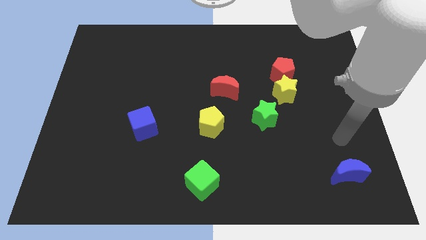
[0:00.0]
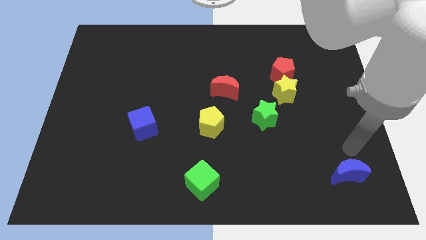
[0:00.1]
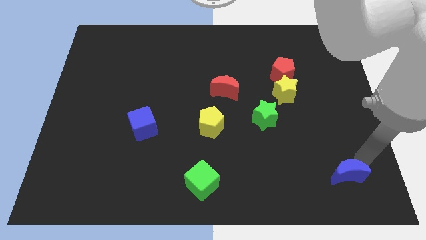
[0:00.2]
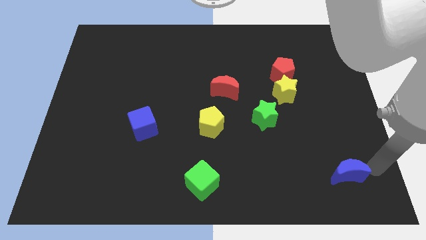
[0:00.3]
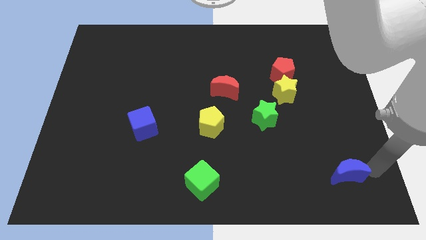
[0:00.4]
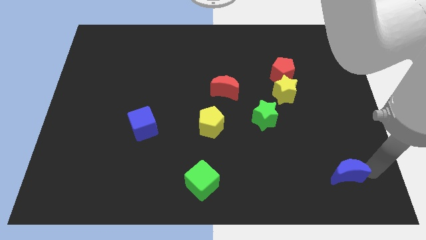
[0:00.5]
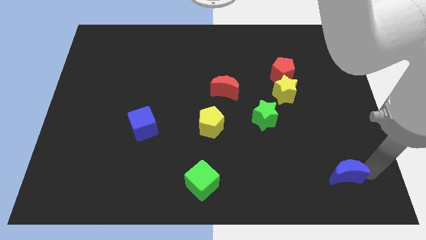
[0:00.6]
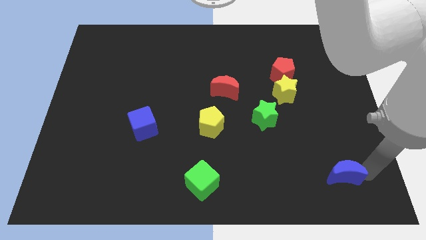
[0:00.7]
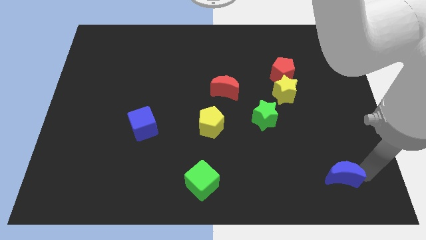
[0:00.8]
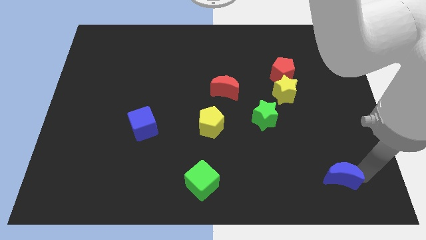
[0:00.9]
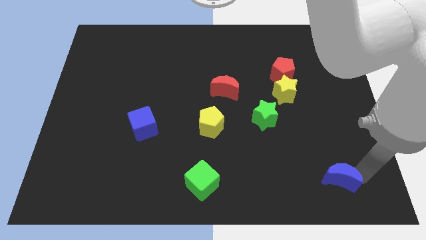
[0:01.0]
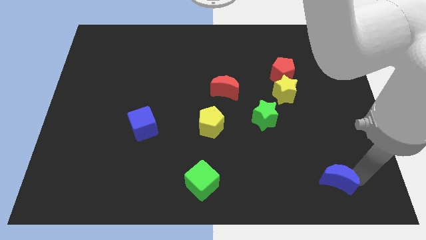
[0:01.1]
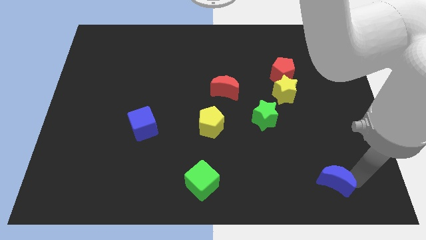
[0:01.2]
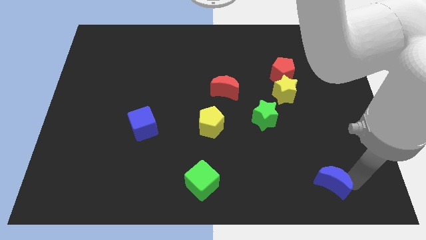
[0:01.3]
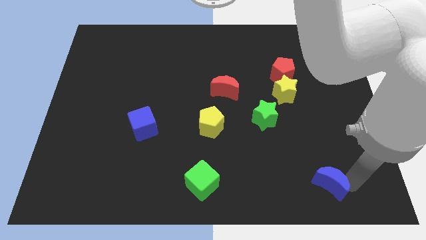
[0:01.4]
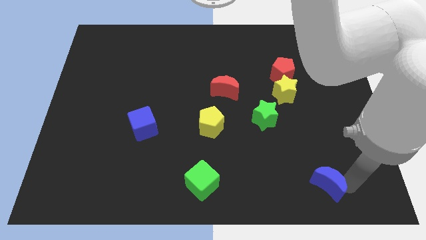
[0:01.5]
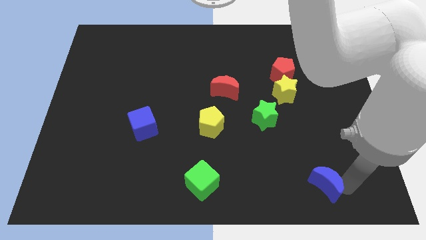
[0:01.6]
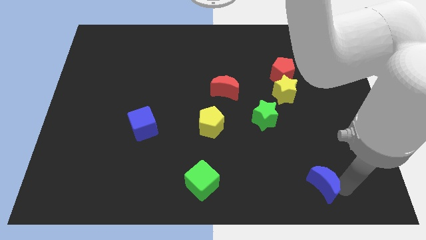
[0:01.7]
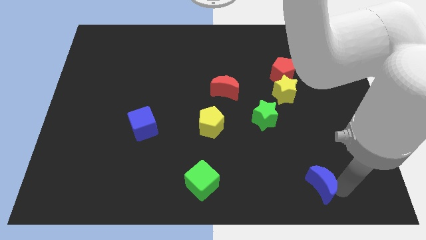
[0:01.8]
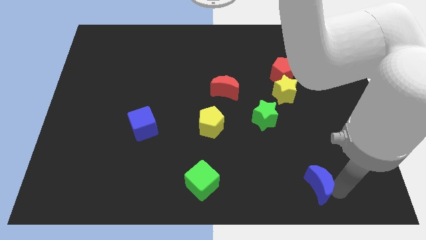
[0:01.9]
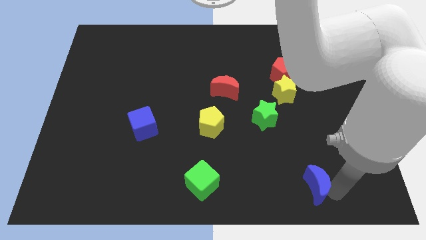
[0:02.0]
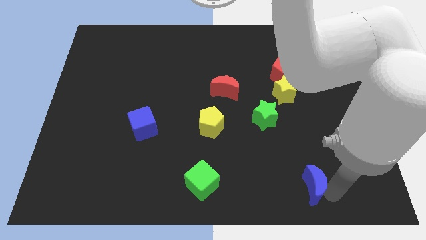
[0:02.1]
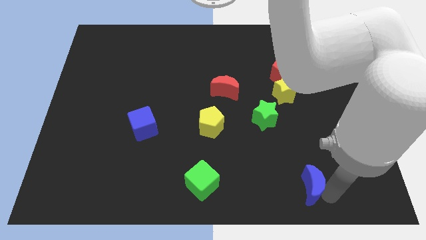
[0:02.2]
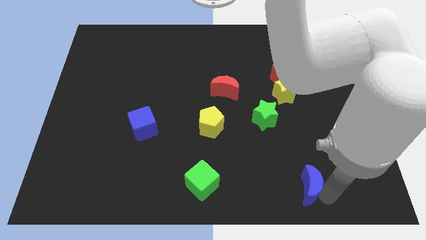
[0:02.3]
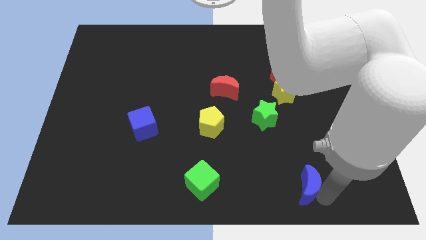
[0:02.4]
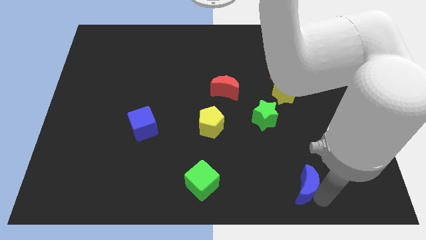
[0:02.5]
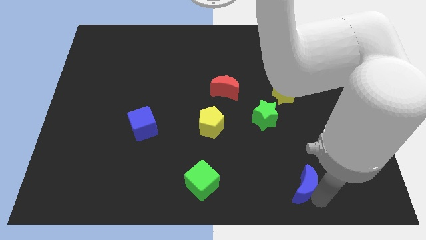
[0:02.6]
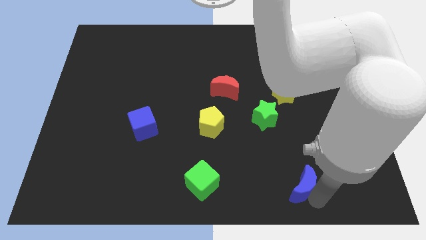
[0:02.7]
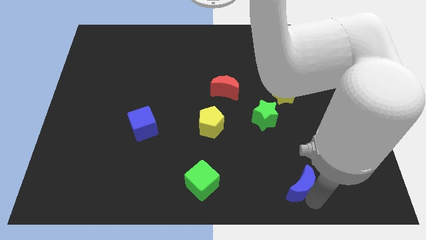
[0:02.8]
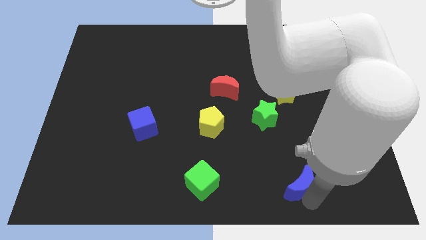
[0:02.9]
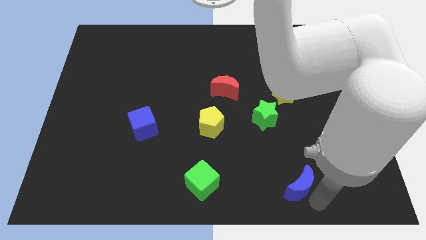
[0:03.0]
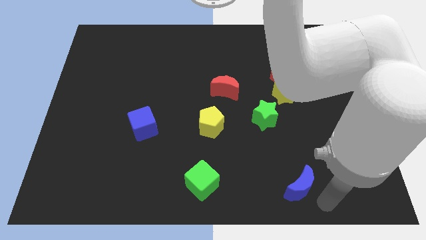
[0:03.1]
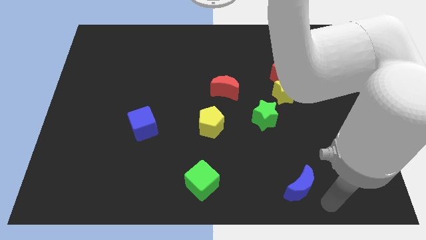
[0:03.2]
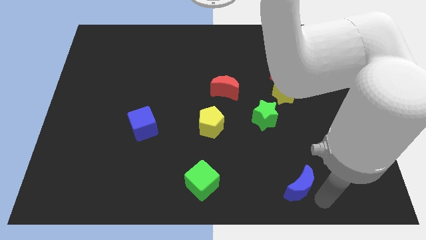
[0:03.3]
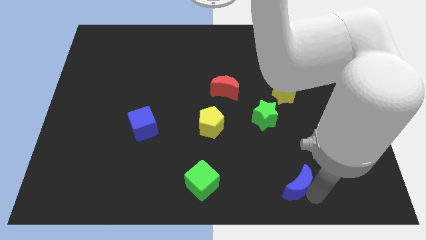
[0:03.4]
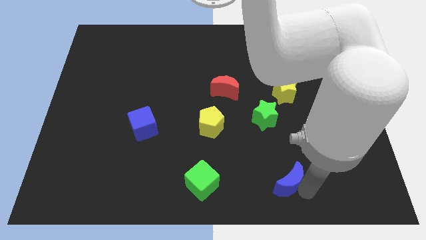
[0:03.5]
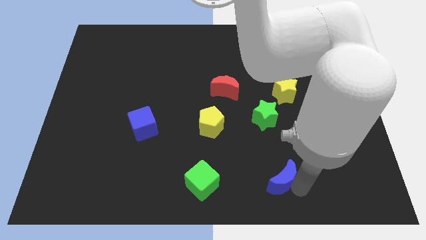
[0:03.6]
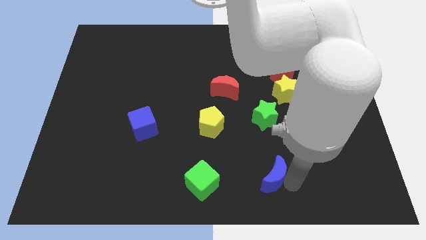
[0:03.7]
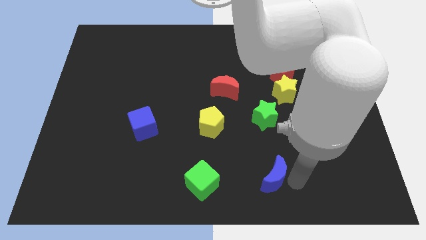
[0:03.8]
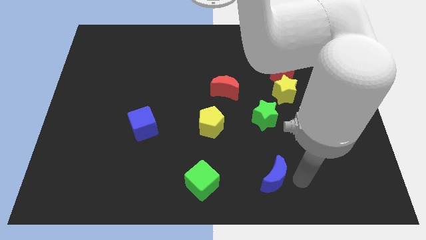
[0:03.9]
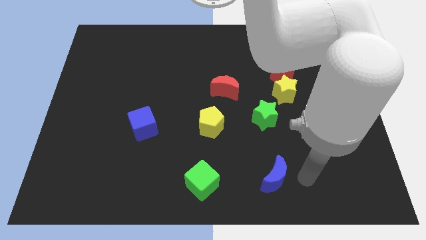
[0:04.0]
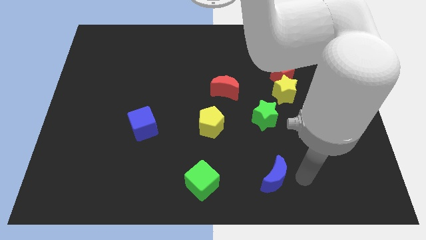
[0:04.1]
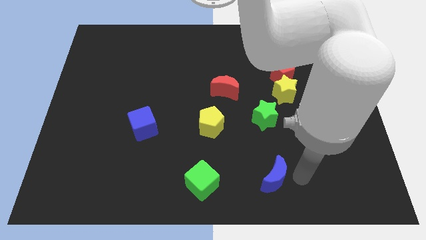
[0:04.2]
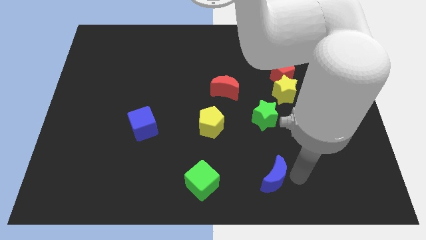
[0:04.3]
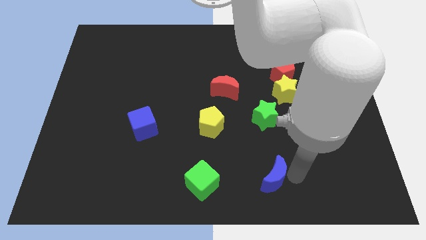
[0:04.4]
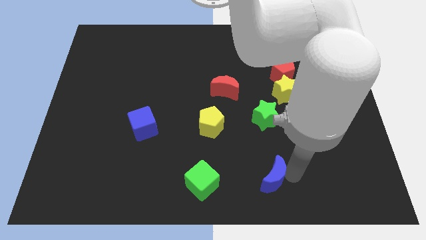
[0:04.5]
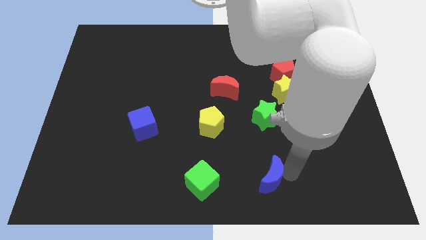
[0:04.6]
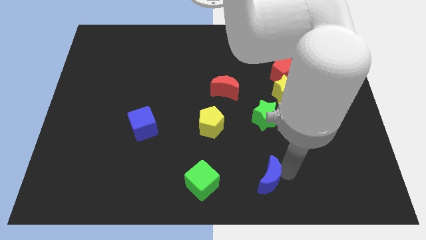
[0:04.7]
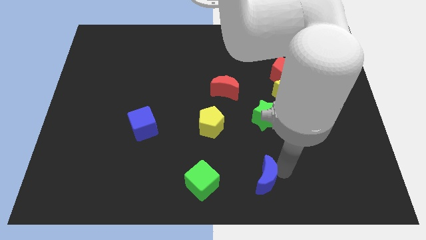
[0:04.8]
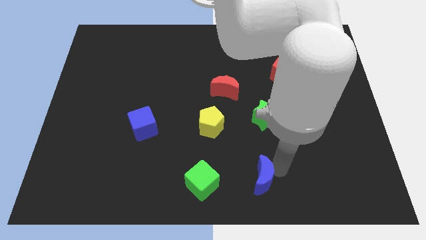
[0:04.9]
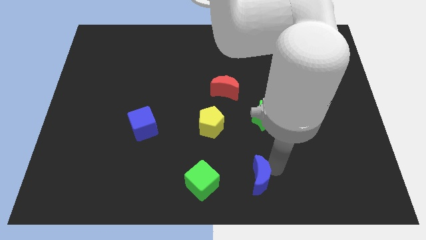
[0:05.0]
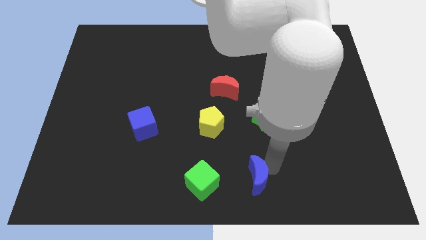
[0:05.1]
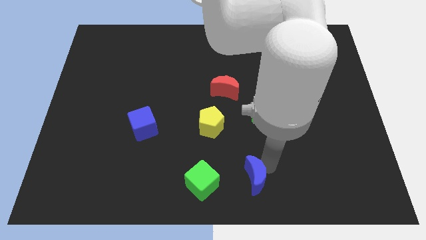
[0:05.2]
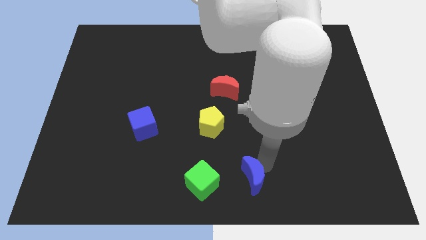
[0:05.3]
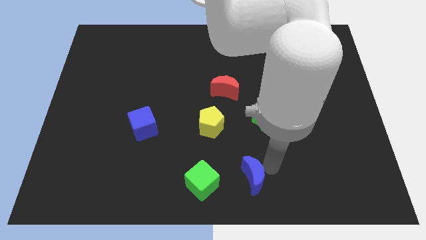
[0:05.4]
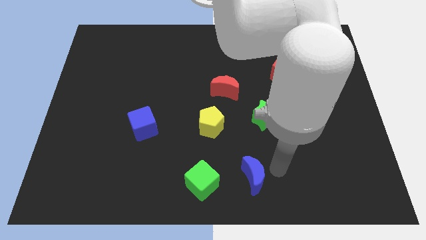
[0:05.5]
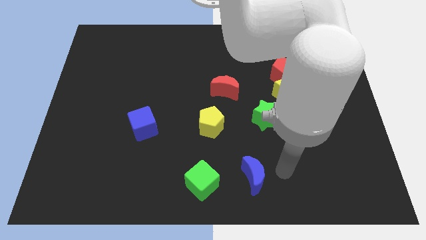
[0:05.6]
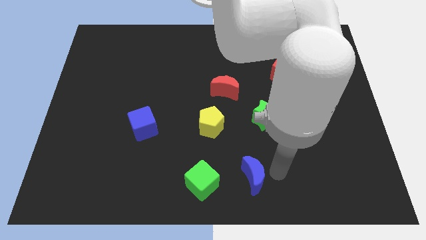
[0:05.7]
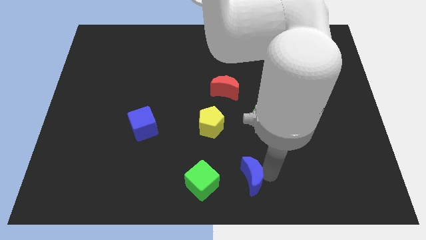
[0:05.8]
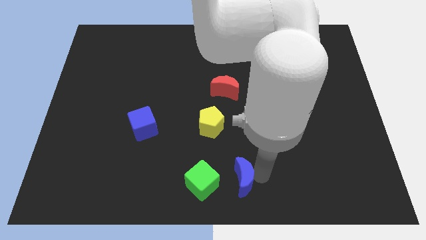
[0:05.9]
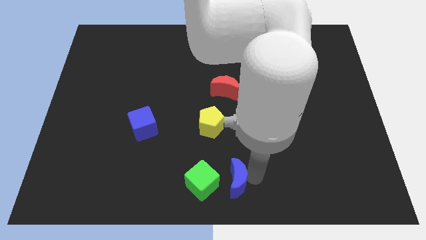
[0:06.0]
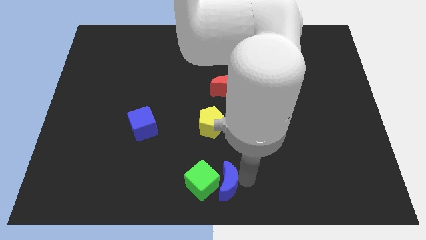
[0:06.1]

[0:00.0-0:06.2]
push the blue moon close to the green cube

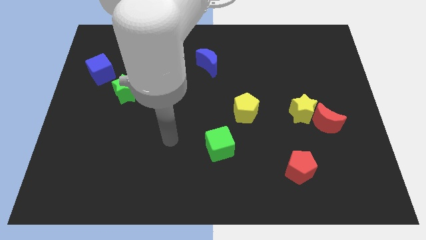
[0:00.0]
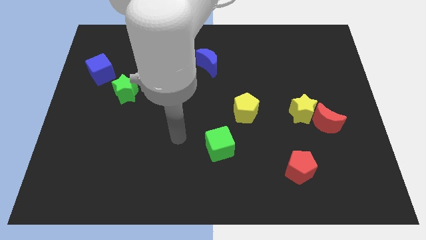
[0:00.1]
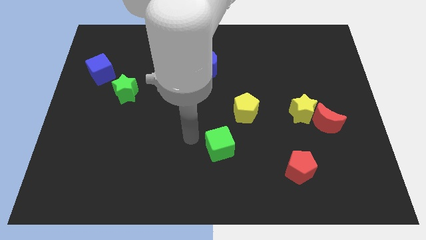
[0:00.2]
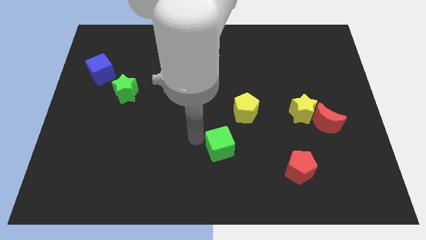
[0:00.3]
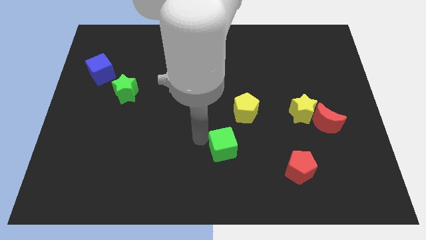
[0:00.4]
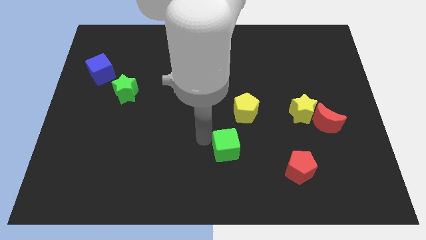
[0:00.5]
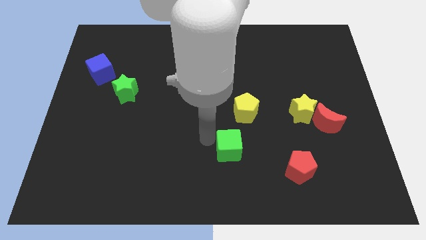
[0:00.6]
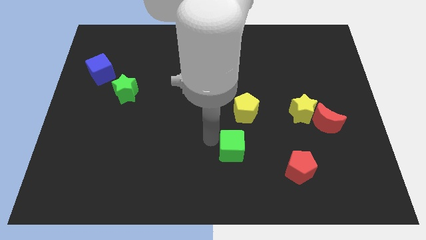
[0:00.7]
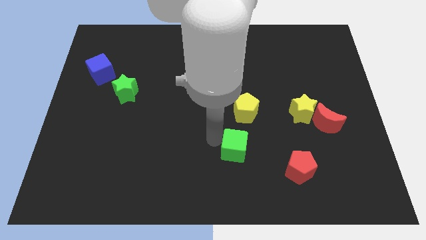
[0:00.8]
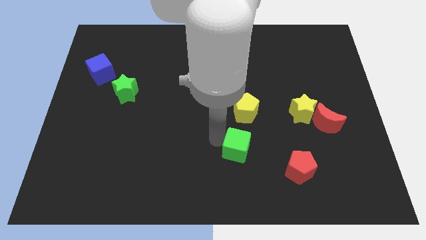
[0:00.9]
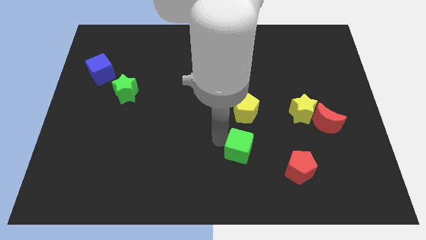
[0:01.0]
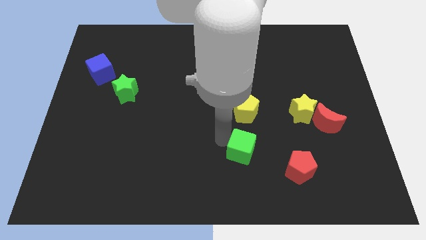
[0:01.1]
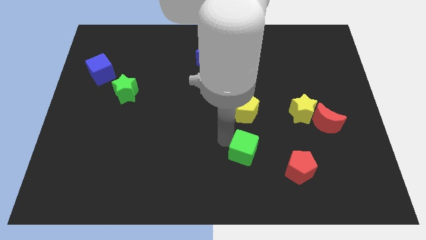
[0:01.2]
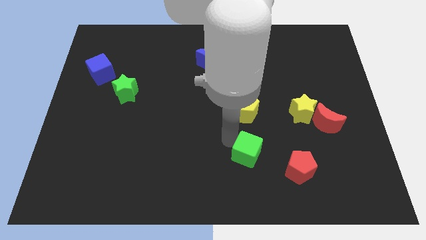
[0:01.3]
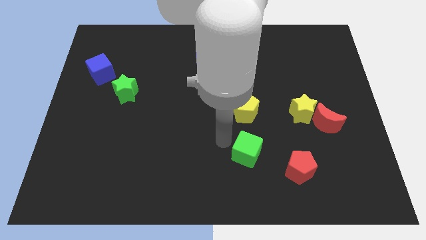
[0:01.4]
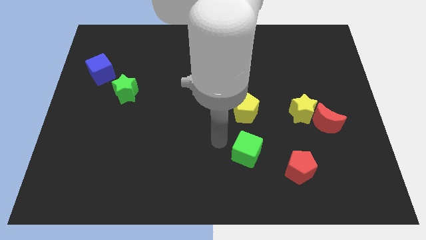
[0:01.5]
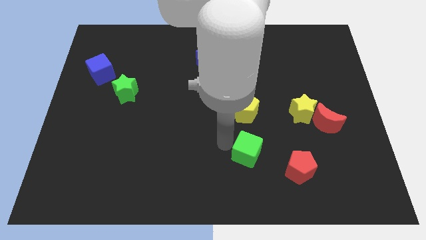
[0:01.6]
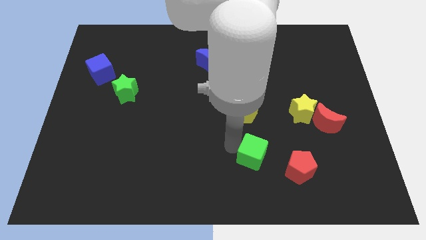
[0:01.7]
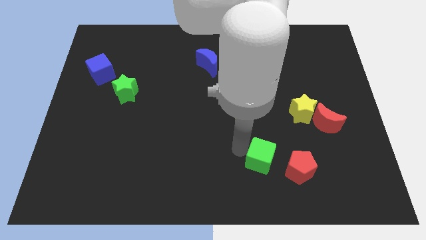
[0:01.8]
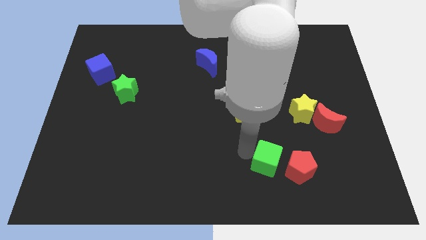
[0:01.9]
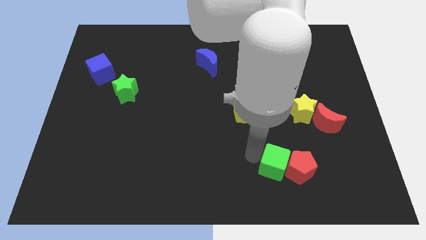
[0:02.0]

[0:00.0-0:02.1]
put the green cube next to the red pentagon
